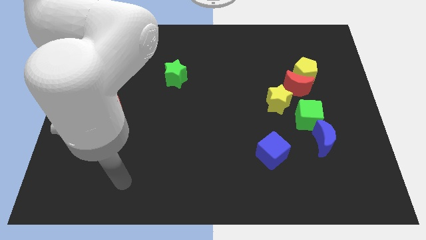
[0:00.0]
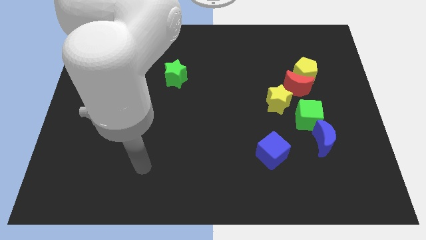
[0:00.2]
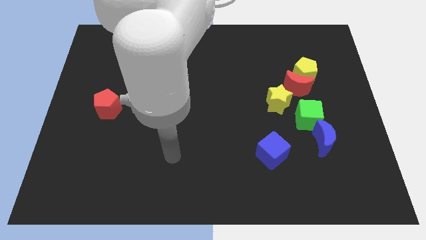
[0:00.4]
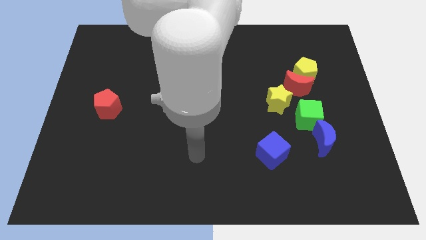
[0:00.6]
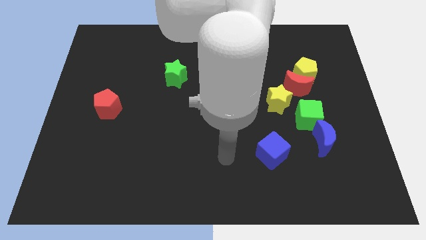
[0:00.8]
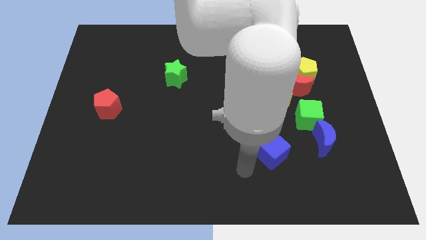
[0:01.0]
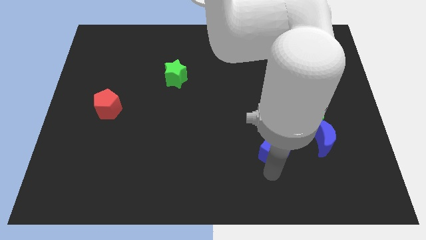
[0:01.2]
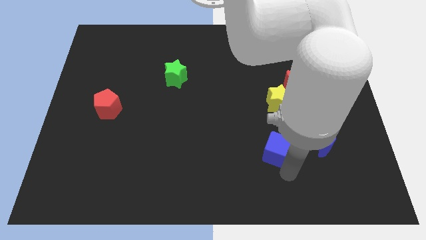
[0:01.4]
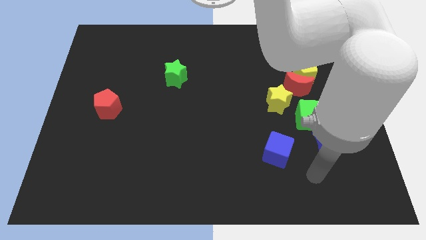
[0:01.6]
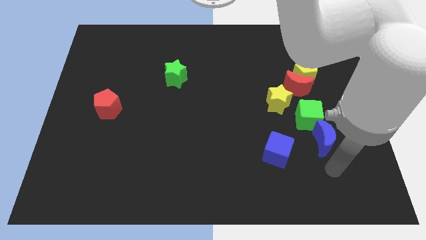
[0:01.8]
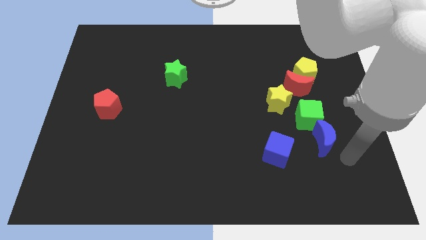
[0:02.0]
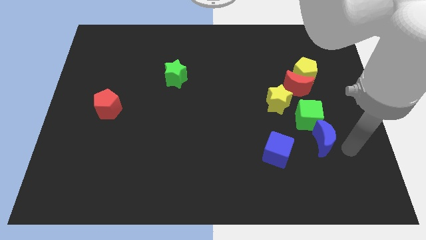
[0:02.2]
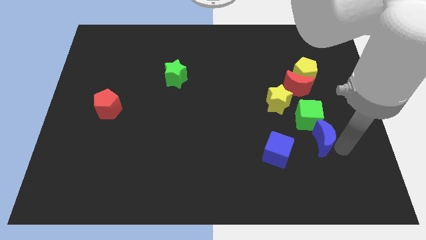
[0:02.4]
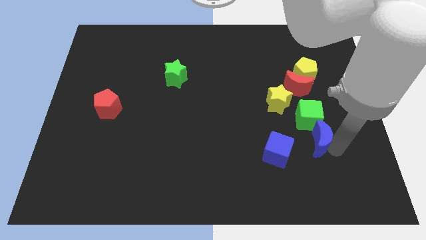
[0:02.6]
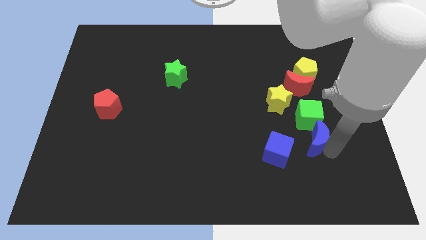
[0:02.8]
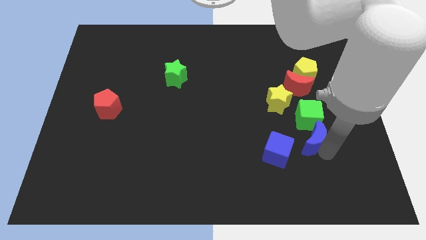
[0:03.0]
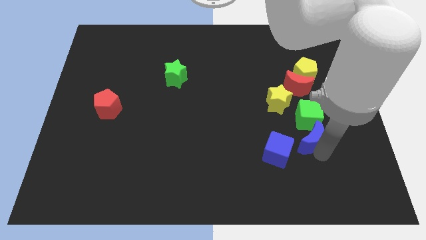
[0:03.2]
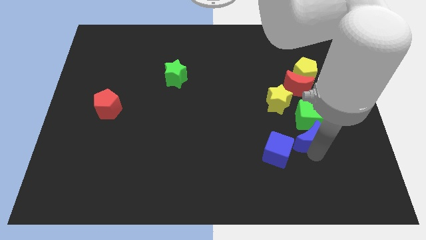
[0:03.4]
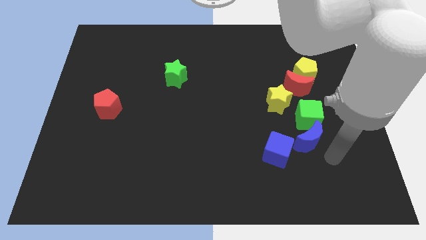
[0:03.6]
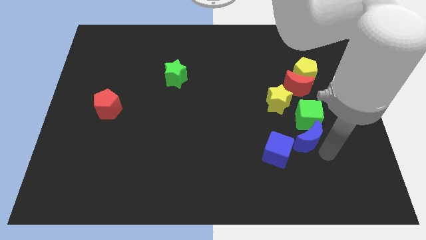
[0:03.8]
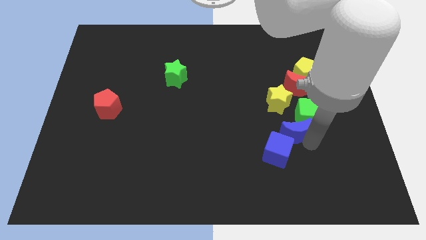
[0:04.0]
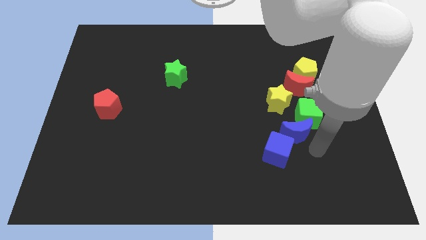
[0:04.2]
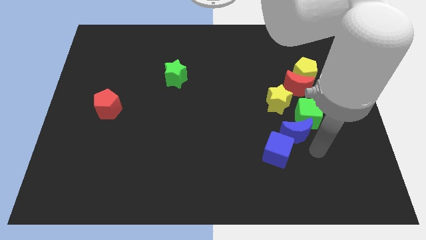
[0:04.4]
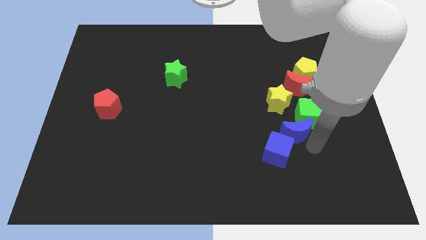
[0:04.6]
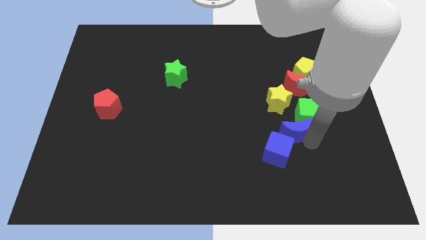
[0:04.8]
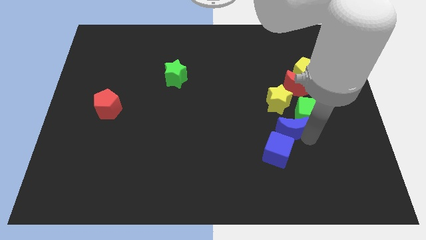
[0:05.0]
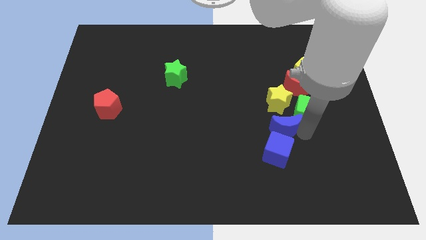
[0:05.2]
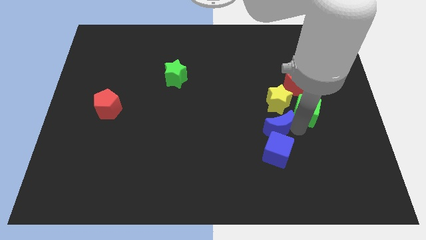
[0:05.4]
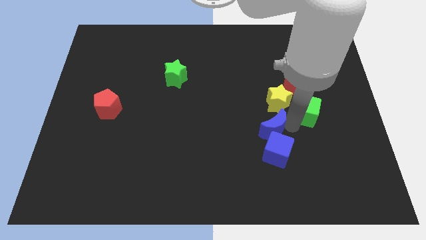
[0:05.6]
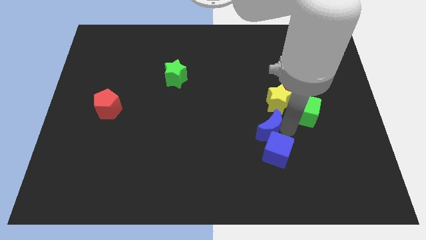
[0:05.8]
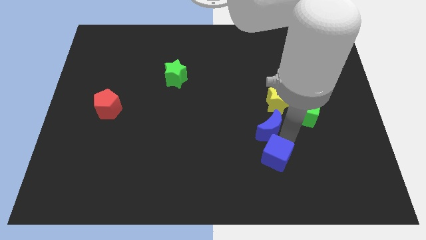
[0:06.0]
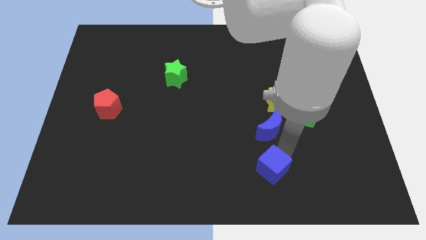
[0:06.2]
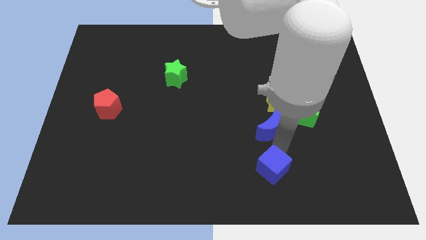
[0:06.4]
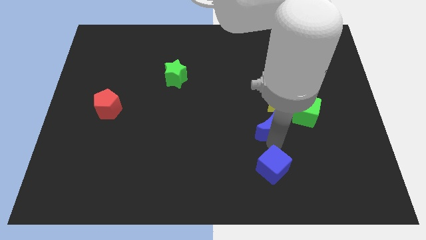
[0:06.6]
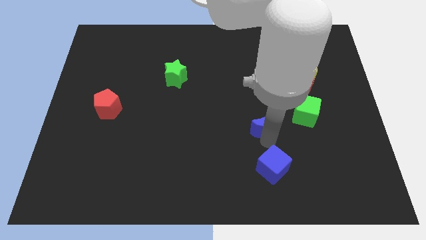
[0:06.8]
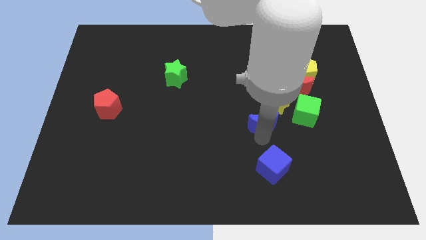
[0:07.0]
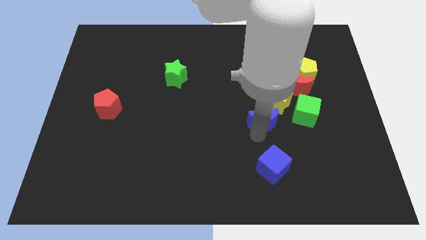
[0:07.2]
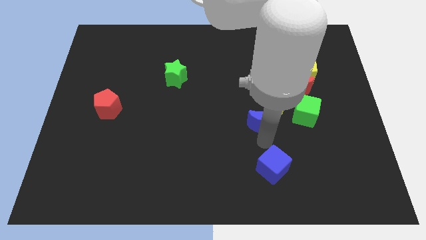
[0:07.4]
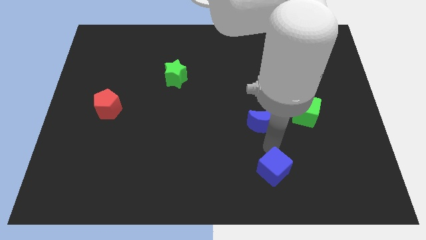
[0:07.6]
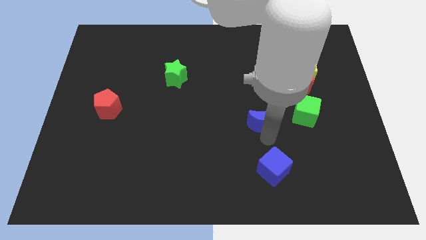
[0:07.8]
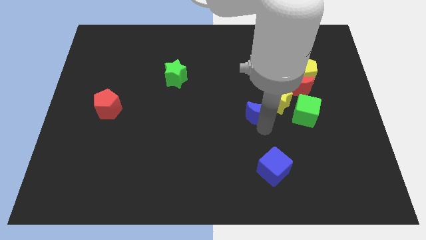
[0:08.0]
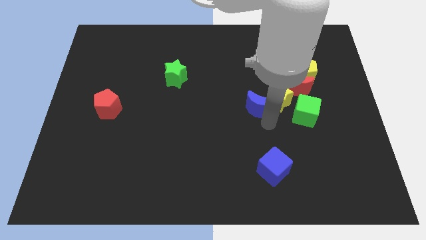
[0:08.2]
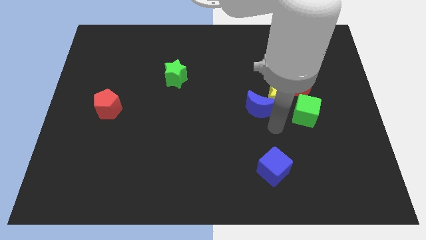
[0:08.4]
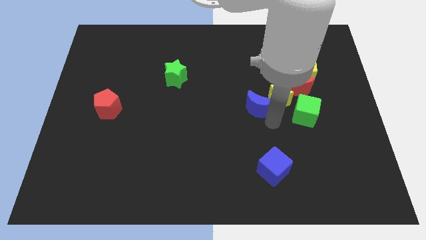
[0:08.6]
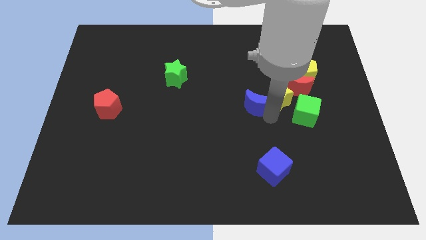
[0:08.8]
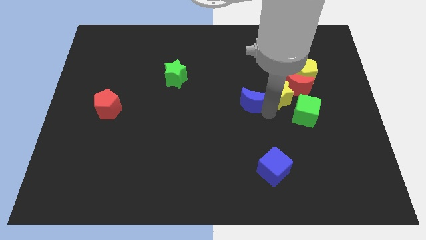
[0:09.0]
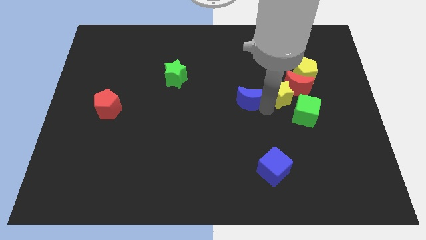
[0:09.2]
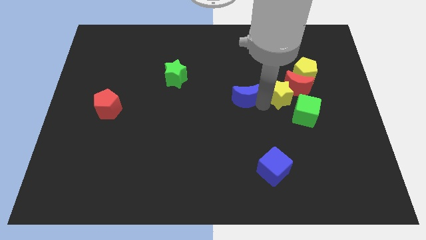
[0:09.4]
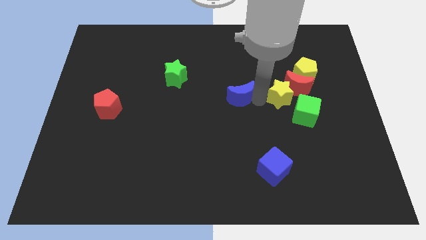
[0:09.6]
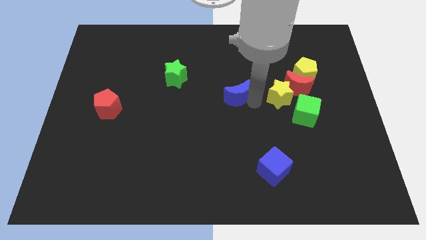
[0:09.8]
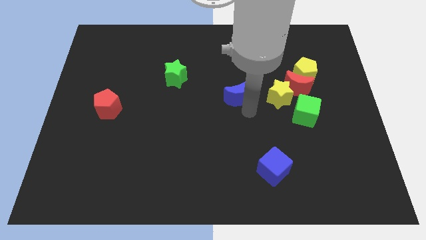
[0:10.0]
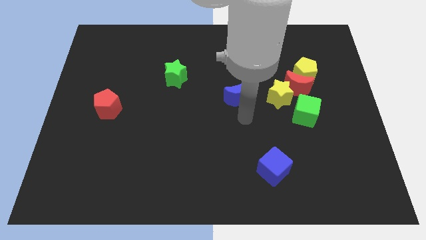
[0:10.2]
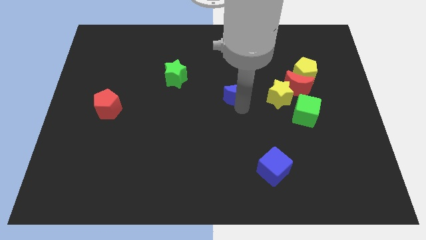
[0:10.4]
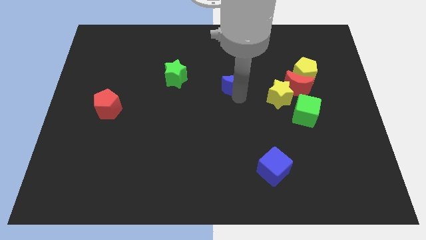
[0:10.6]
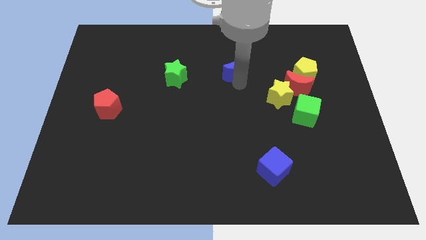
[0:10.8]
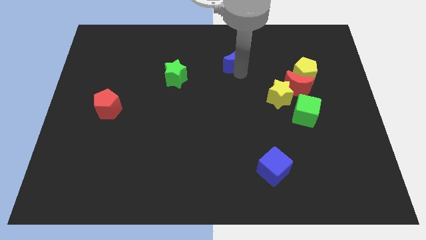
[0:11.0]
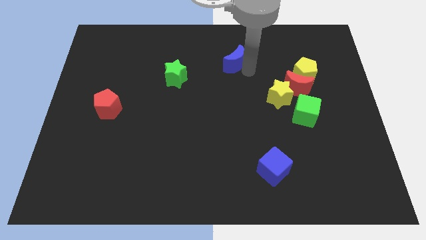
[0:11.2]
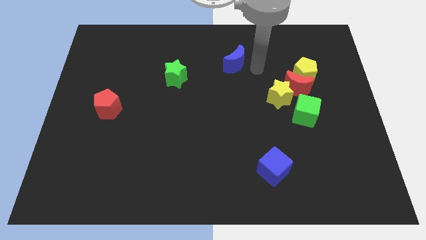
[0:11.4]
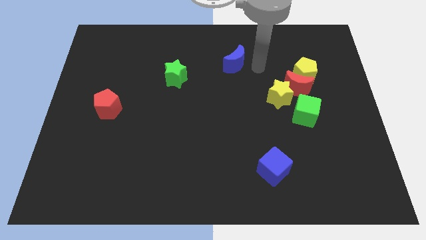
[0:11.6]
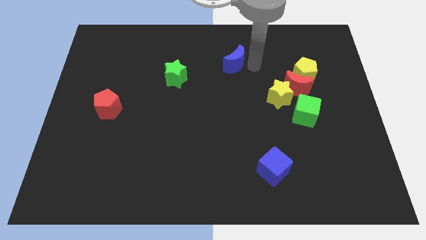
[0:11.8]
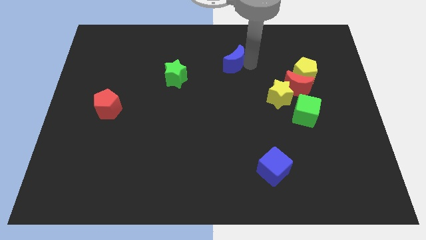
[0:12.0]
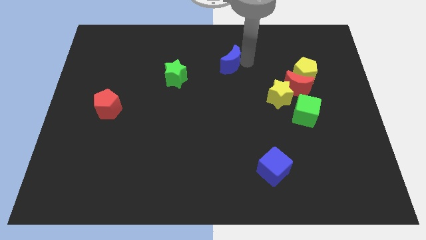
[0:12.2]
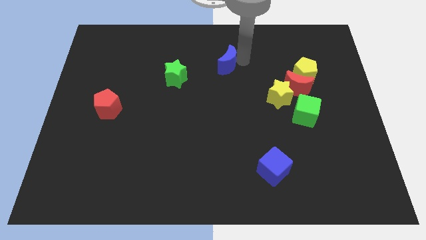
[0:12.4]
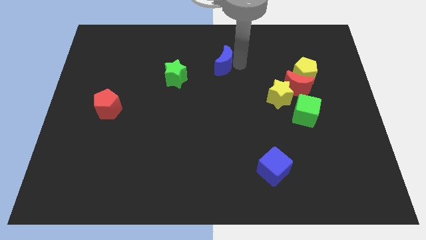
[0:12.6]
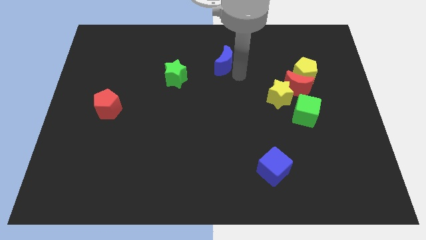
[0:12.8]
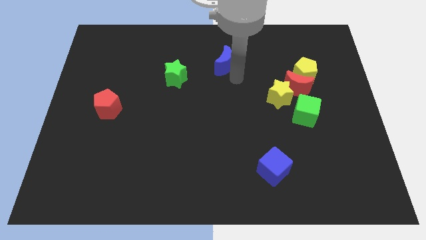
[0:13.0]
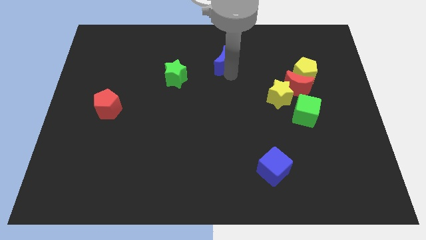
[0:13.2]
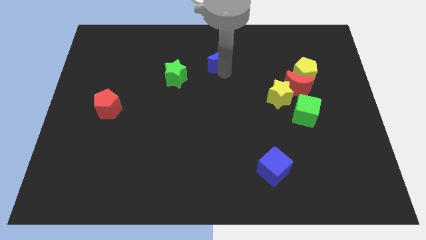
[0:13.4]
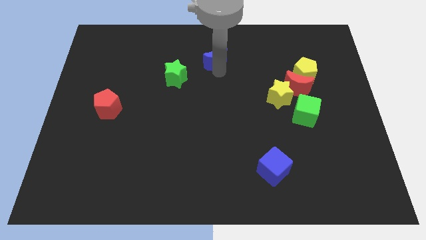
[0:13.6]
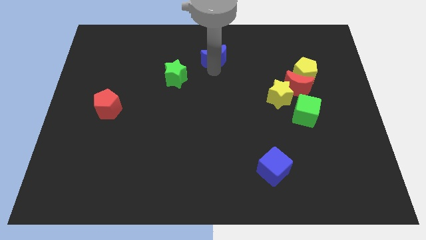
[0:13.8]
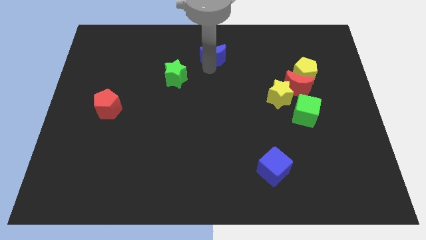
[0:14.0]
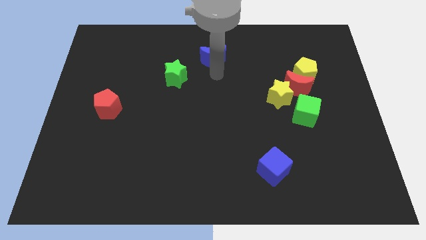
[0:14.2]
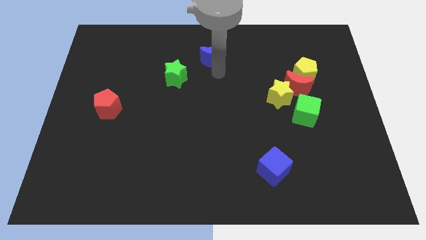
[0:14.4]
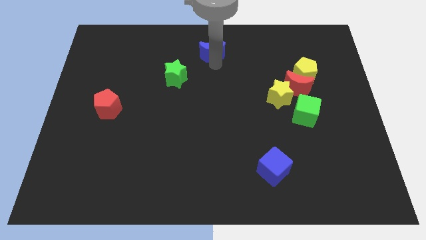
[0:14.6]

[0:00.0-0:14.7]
move the blue moon to the top side

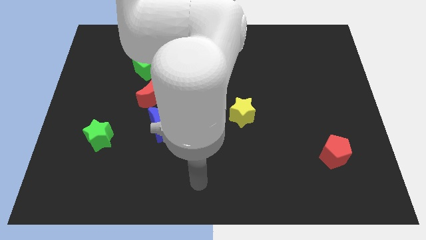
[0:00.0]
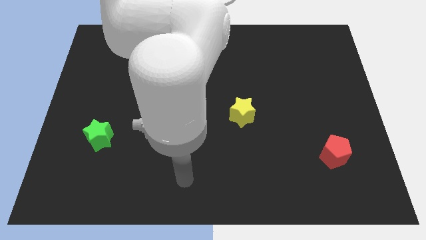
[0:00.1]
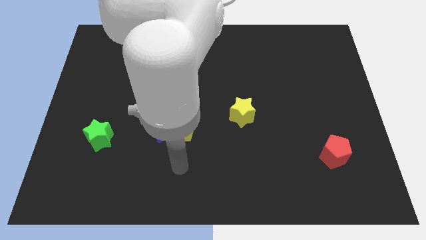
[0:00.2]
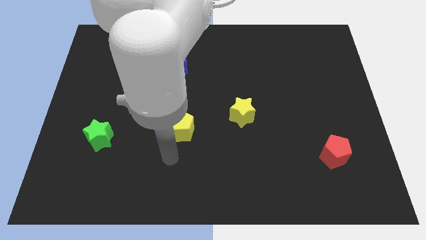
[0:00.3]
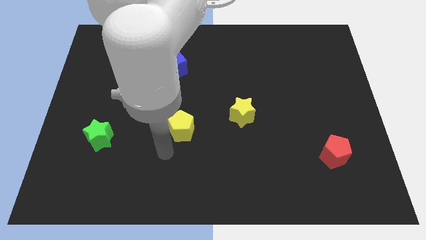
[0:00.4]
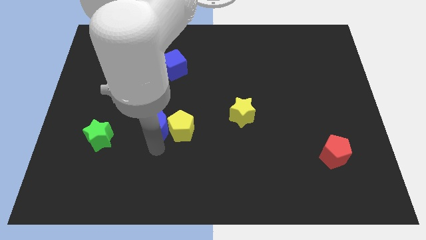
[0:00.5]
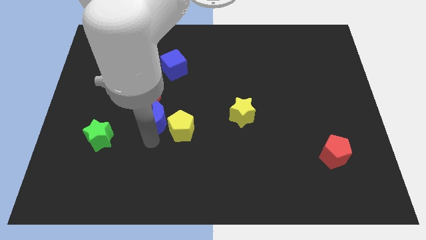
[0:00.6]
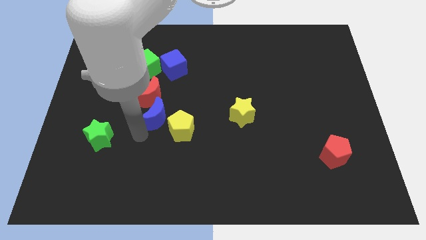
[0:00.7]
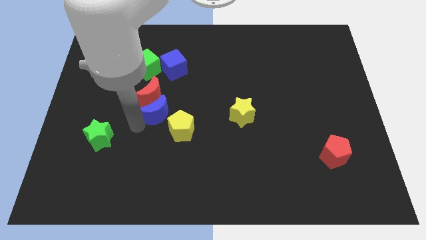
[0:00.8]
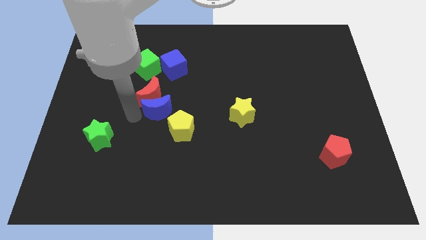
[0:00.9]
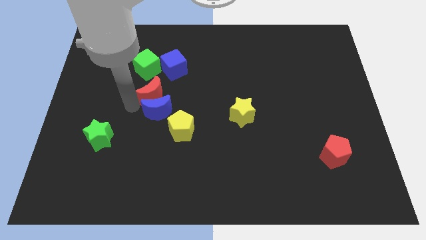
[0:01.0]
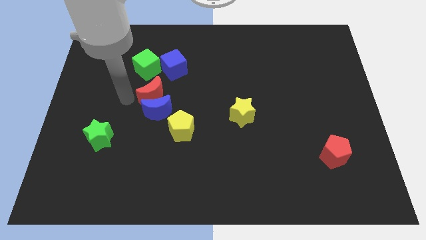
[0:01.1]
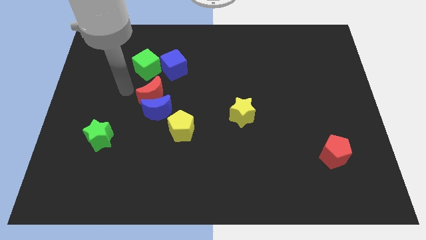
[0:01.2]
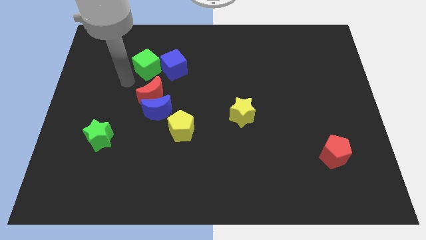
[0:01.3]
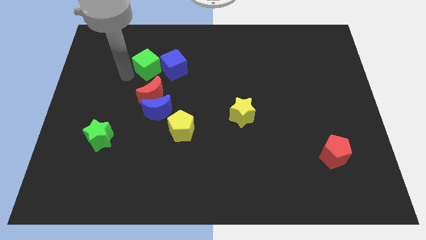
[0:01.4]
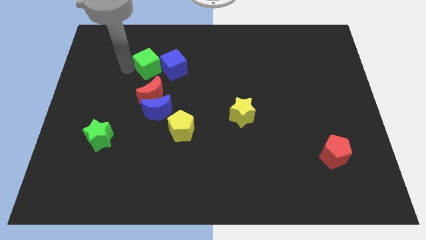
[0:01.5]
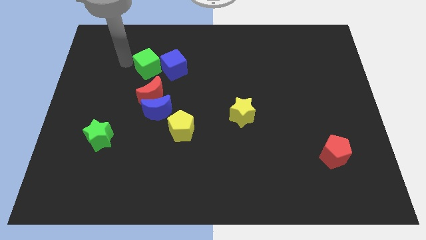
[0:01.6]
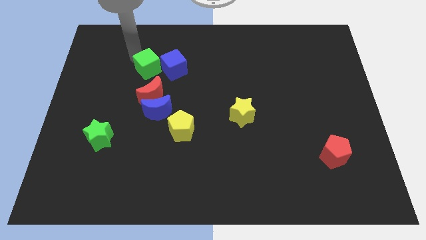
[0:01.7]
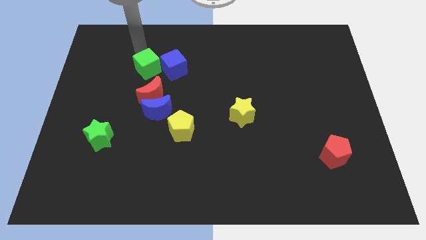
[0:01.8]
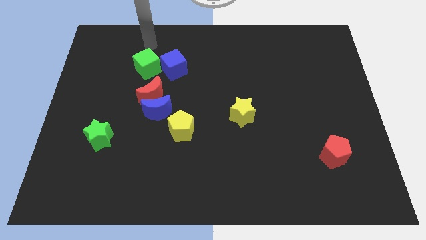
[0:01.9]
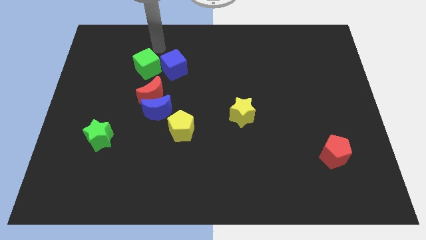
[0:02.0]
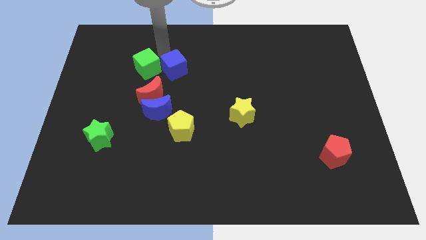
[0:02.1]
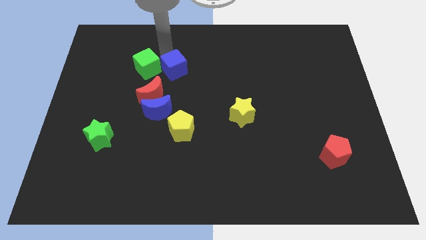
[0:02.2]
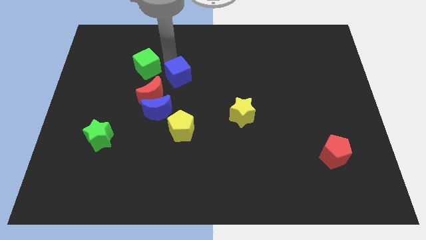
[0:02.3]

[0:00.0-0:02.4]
move the blue cube to the middle of the board
